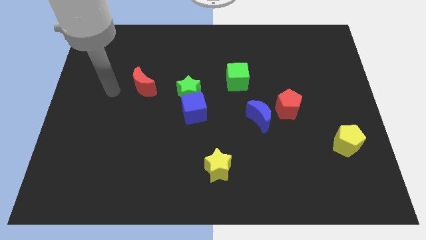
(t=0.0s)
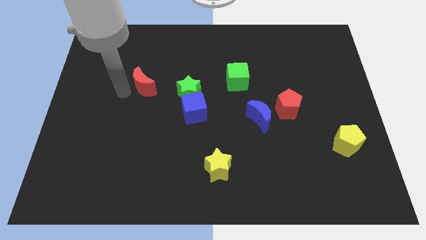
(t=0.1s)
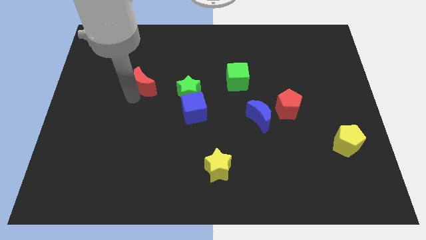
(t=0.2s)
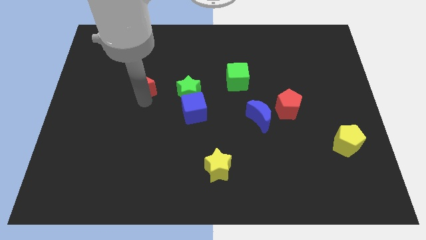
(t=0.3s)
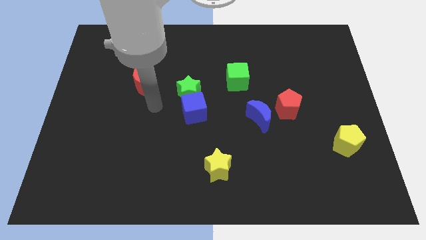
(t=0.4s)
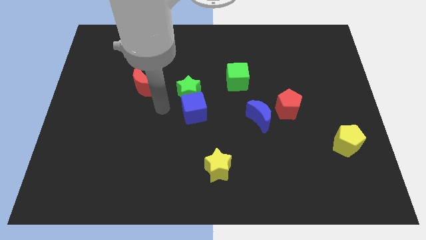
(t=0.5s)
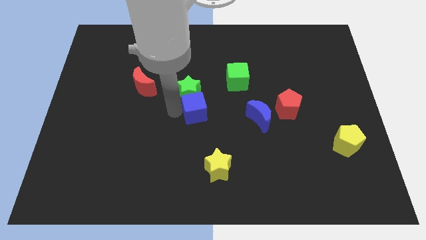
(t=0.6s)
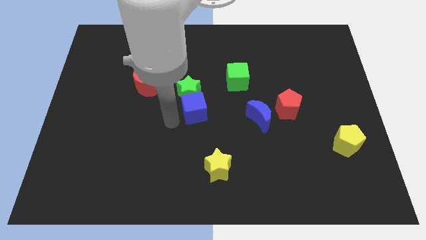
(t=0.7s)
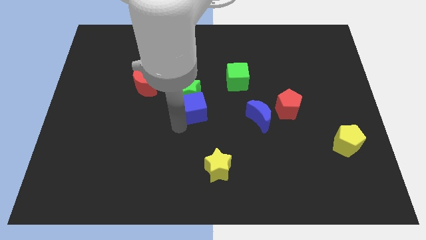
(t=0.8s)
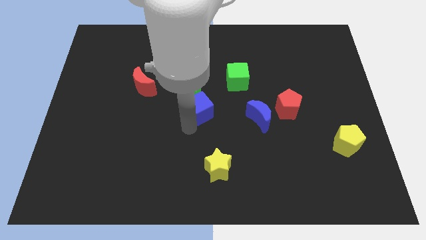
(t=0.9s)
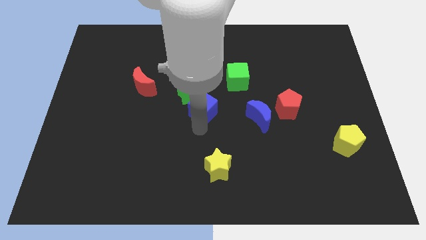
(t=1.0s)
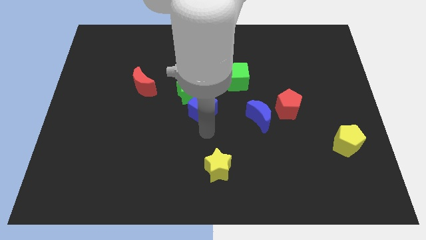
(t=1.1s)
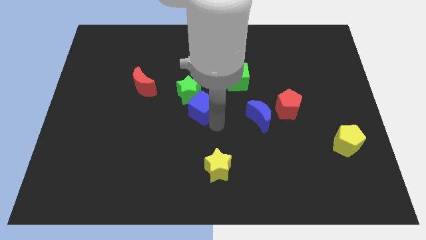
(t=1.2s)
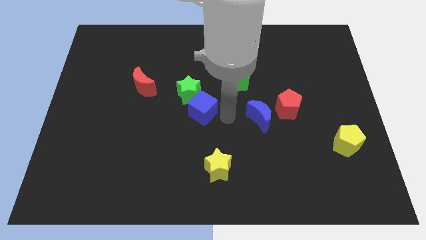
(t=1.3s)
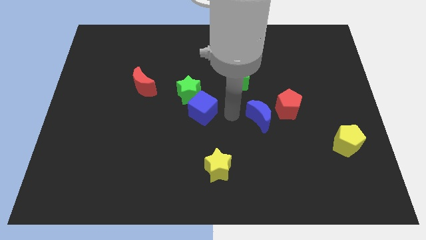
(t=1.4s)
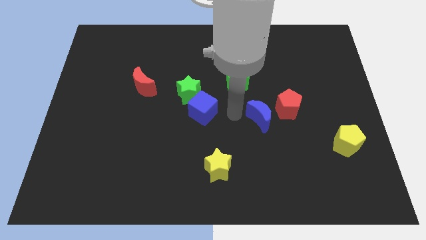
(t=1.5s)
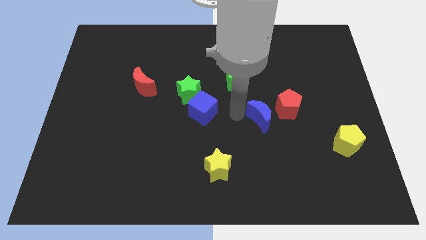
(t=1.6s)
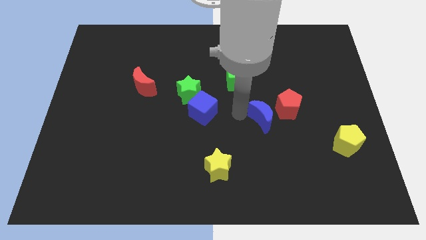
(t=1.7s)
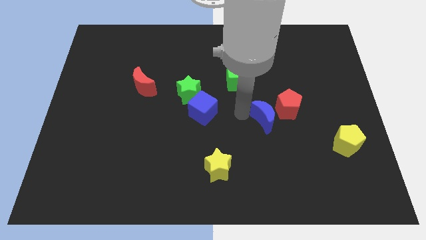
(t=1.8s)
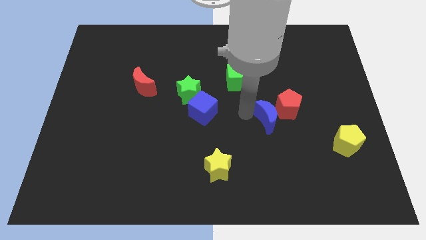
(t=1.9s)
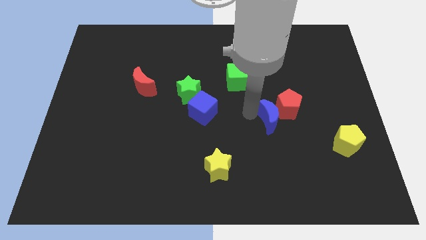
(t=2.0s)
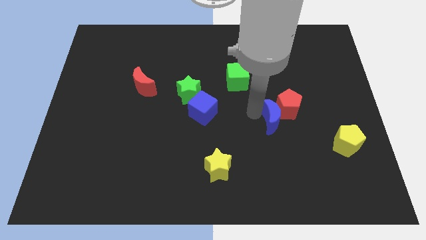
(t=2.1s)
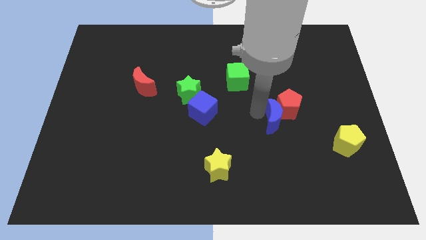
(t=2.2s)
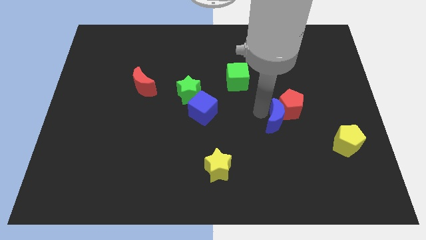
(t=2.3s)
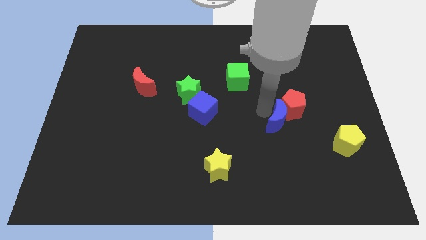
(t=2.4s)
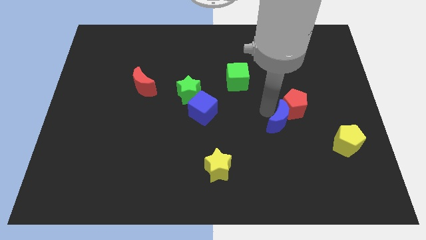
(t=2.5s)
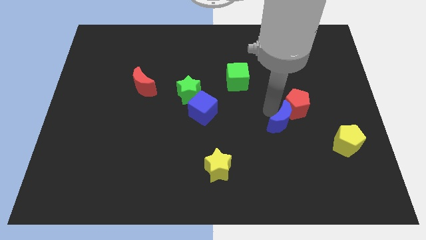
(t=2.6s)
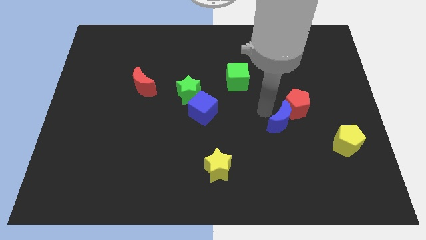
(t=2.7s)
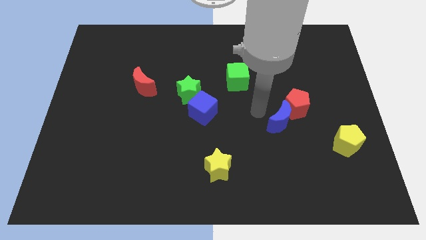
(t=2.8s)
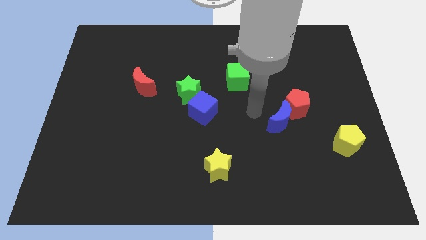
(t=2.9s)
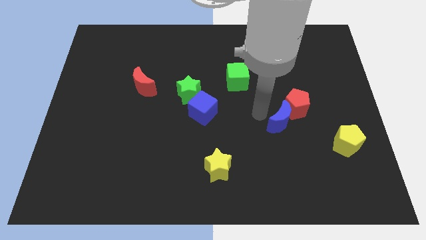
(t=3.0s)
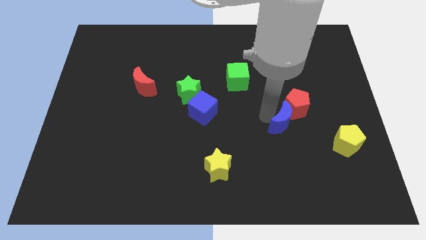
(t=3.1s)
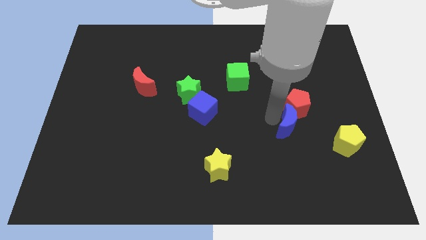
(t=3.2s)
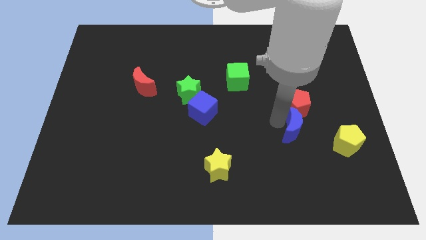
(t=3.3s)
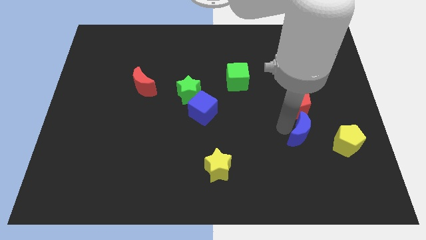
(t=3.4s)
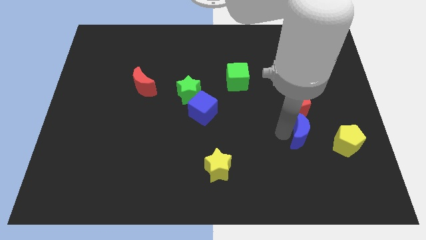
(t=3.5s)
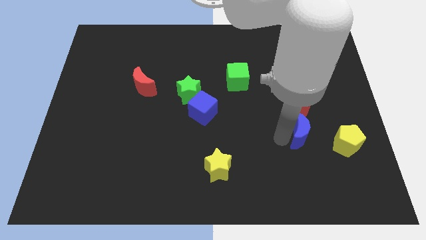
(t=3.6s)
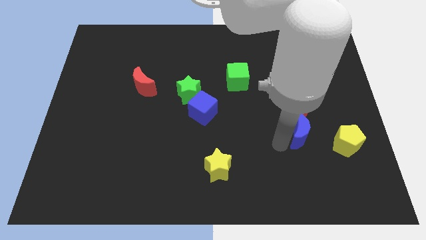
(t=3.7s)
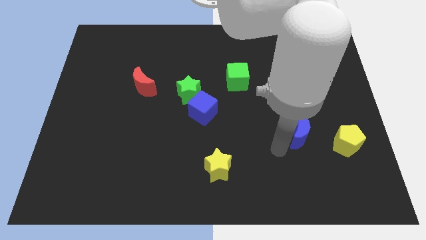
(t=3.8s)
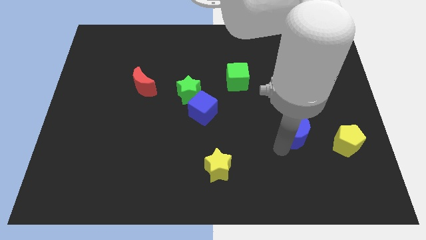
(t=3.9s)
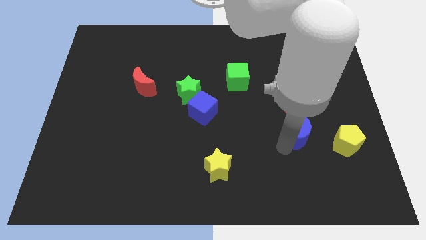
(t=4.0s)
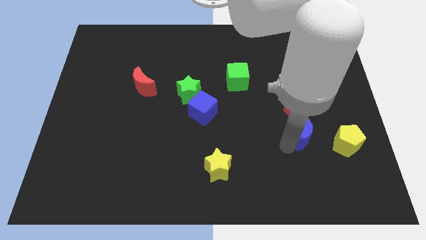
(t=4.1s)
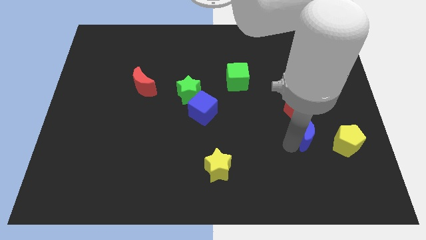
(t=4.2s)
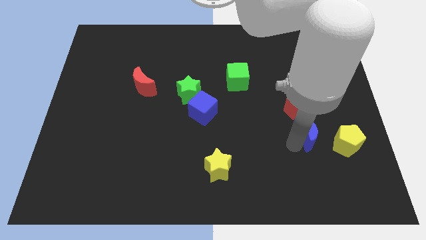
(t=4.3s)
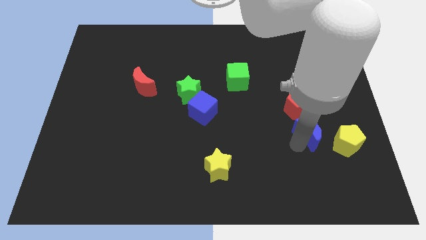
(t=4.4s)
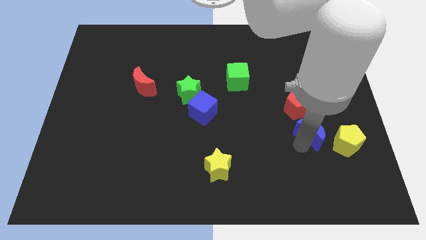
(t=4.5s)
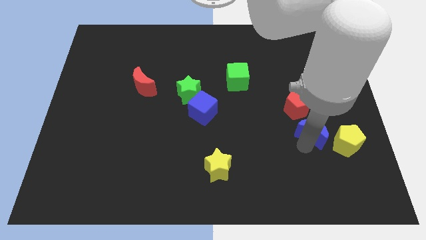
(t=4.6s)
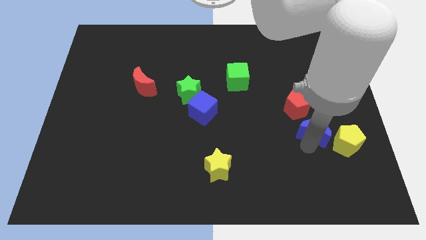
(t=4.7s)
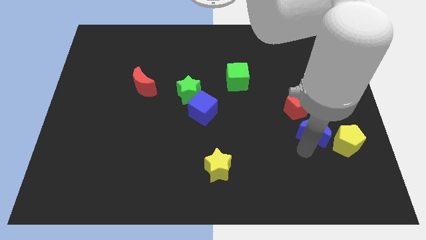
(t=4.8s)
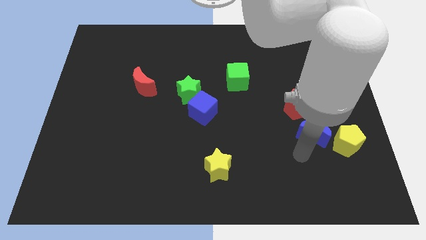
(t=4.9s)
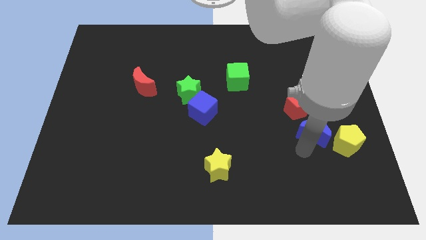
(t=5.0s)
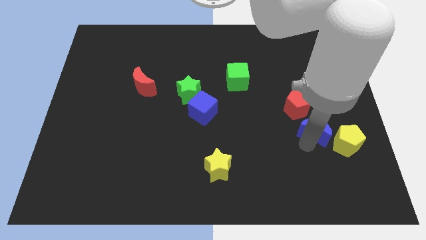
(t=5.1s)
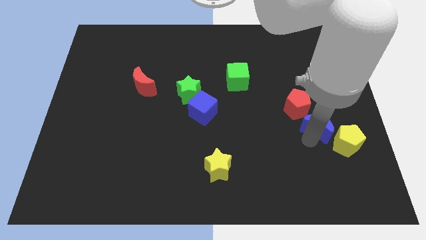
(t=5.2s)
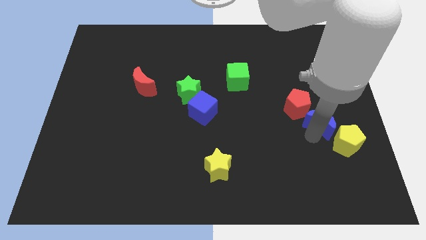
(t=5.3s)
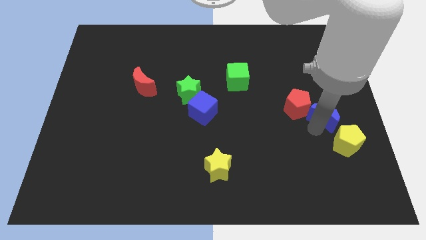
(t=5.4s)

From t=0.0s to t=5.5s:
move the blue moon to the right side of the red pentagon

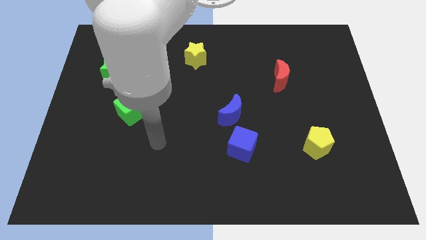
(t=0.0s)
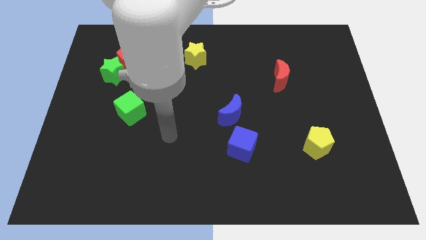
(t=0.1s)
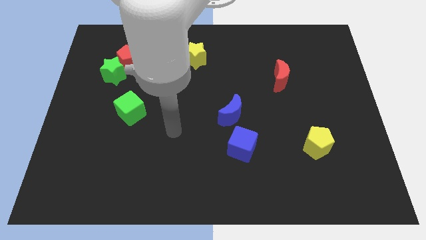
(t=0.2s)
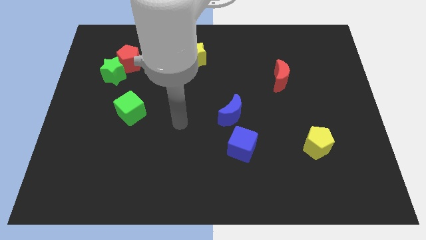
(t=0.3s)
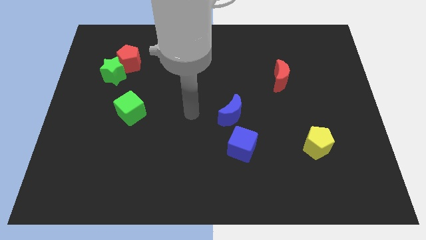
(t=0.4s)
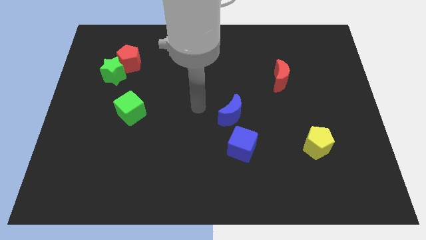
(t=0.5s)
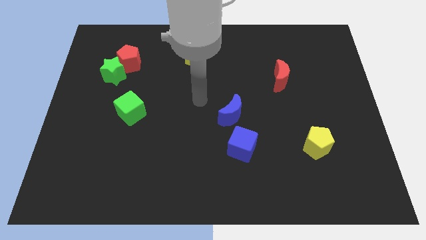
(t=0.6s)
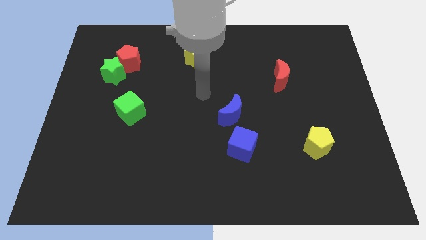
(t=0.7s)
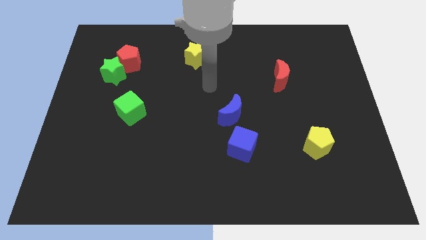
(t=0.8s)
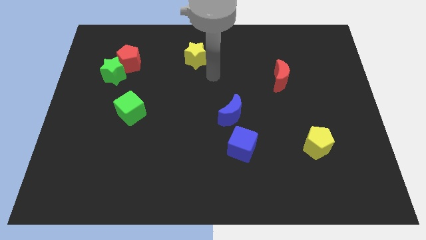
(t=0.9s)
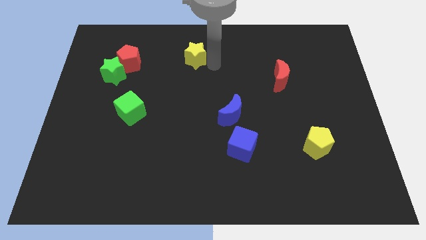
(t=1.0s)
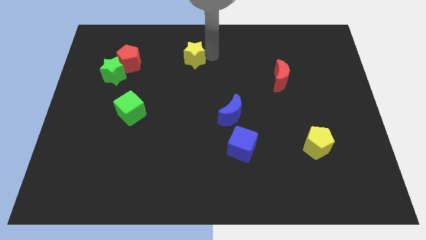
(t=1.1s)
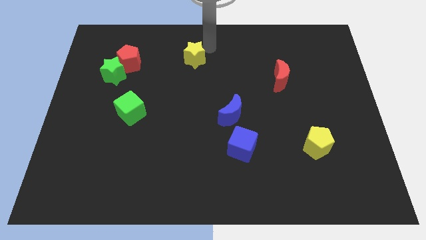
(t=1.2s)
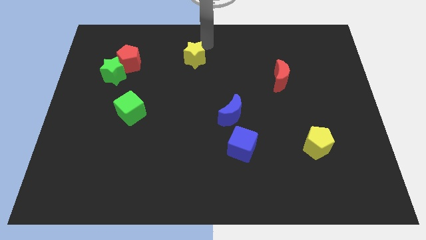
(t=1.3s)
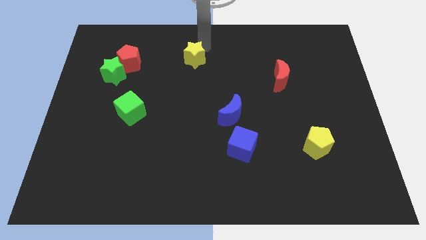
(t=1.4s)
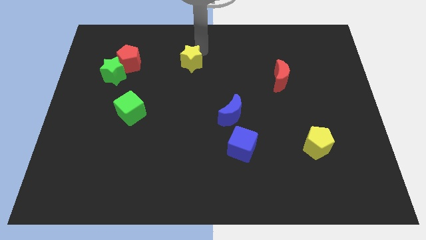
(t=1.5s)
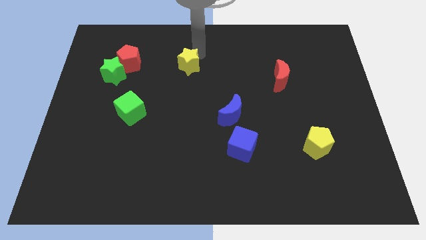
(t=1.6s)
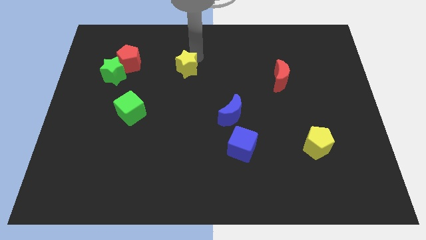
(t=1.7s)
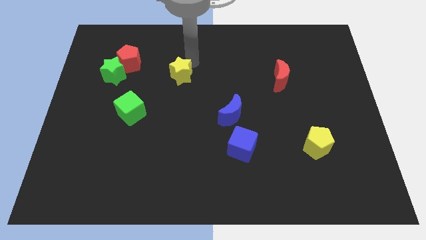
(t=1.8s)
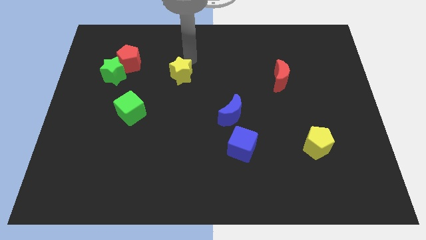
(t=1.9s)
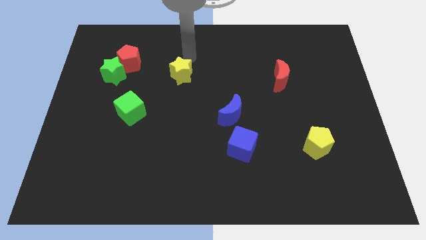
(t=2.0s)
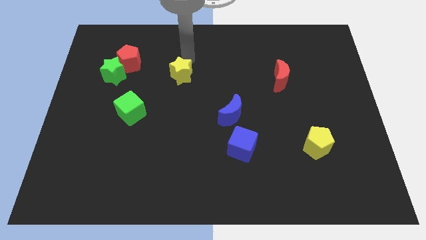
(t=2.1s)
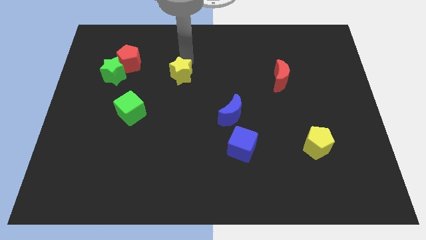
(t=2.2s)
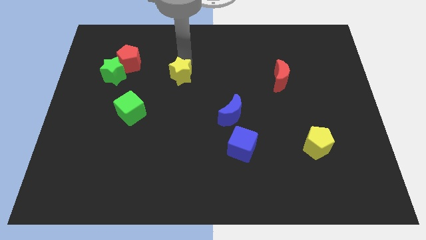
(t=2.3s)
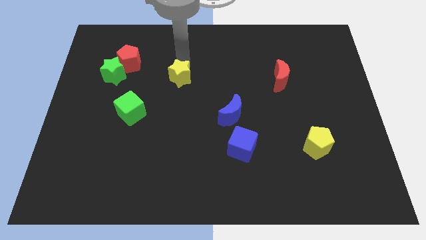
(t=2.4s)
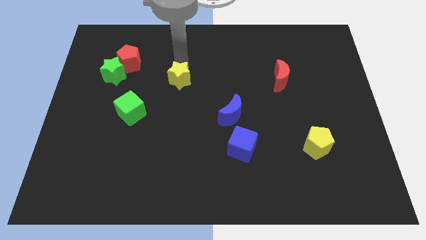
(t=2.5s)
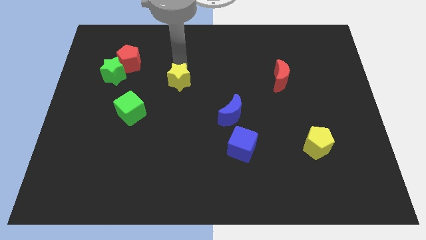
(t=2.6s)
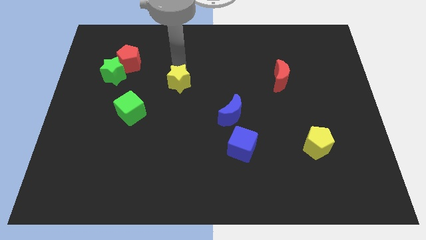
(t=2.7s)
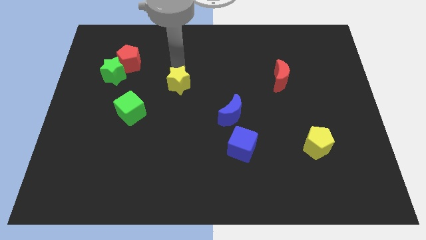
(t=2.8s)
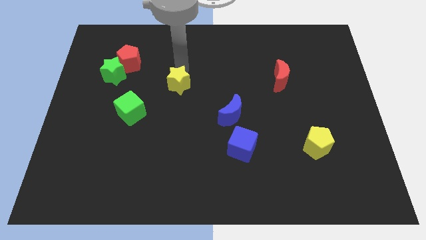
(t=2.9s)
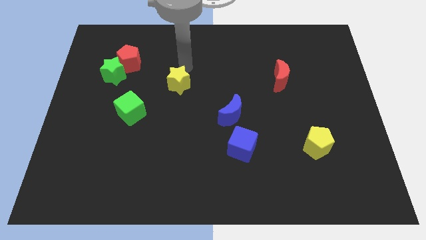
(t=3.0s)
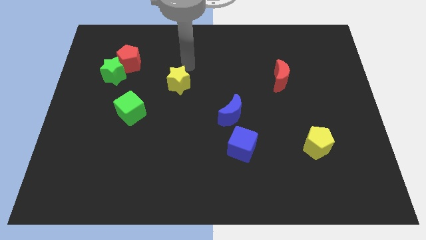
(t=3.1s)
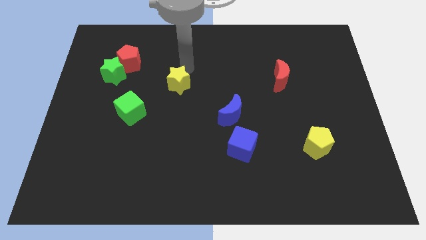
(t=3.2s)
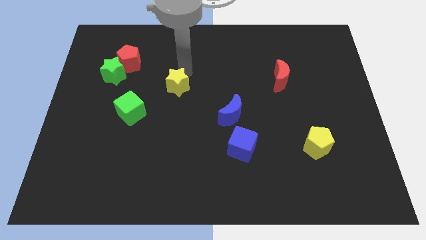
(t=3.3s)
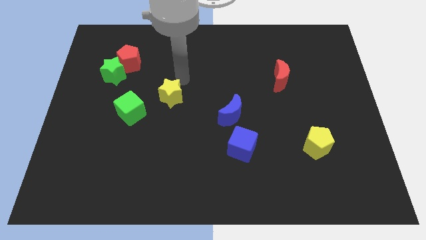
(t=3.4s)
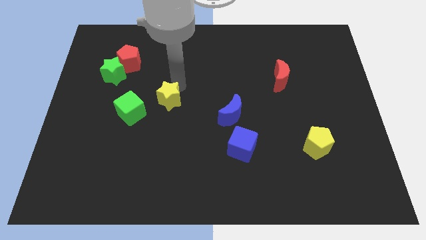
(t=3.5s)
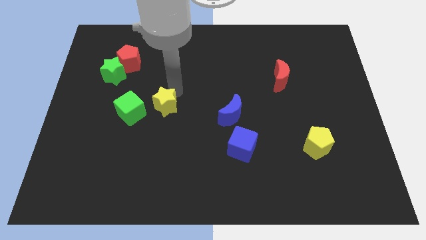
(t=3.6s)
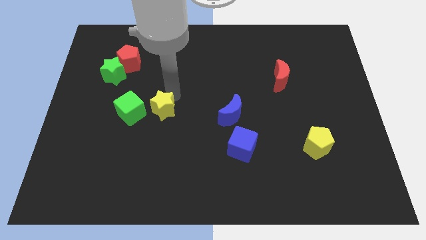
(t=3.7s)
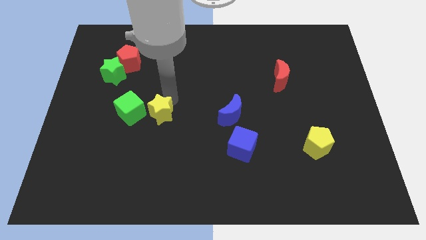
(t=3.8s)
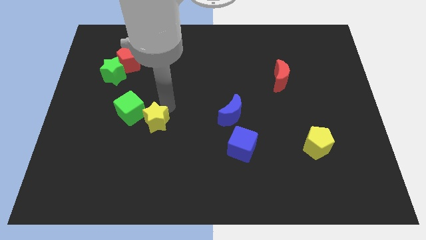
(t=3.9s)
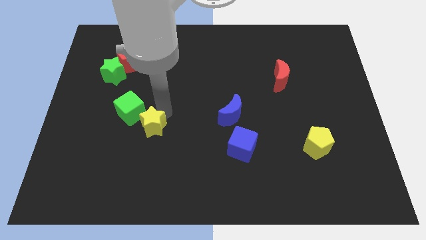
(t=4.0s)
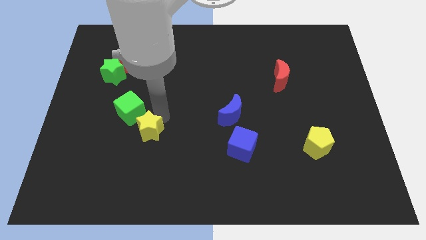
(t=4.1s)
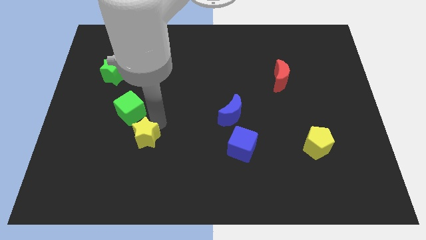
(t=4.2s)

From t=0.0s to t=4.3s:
put the yellow star below the green cube
